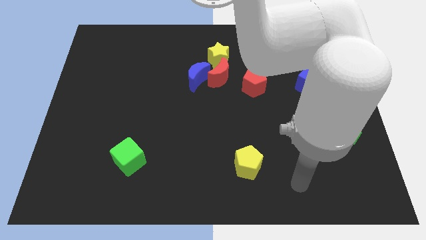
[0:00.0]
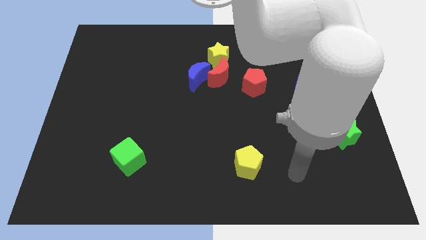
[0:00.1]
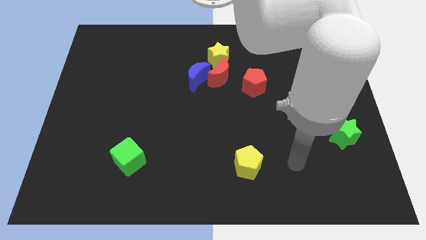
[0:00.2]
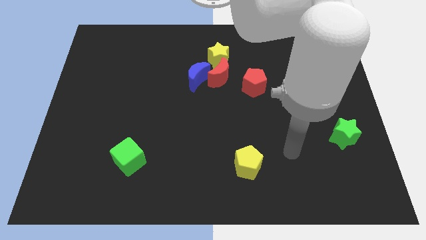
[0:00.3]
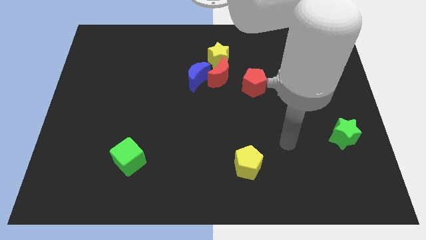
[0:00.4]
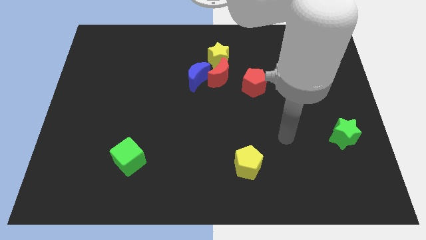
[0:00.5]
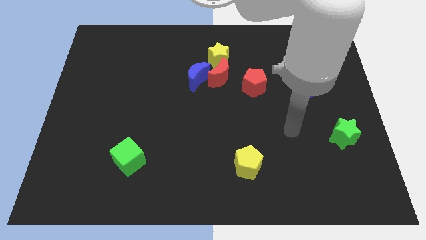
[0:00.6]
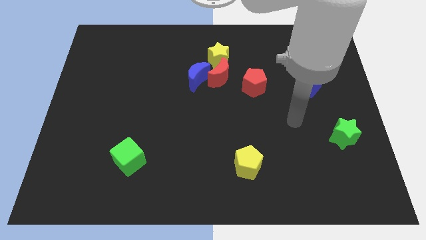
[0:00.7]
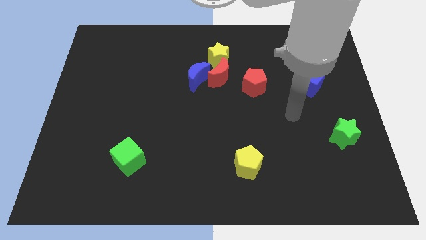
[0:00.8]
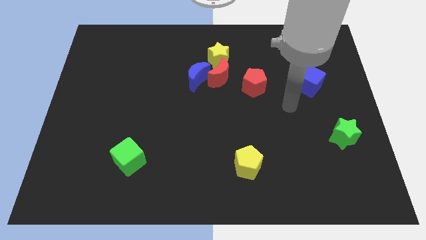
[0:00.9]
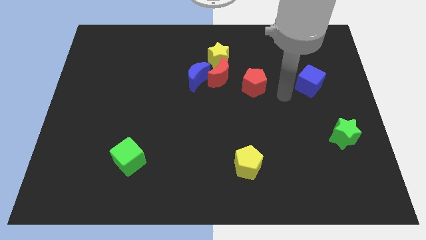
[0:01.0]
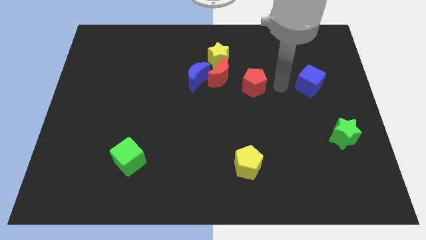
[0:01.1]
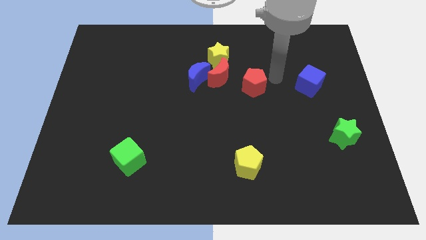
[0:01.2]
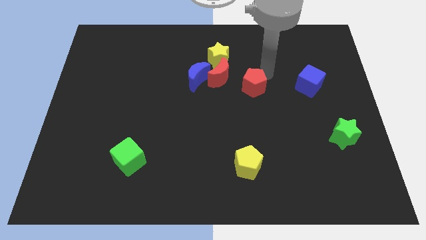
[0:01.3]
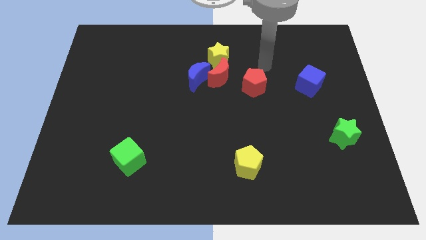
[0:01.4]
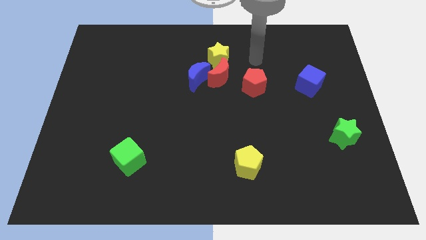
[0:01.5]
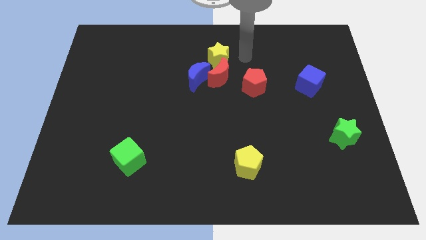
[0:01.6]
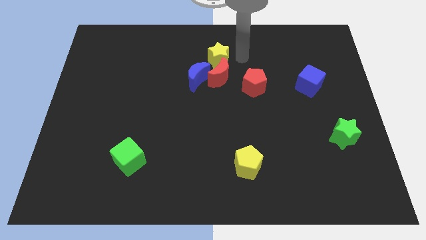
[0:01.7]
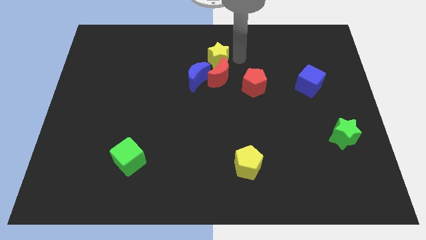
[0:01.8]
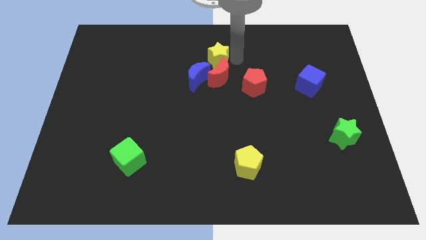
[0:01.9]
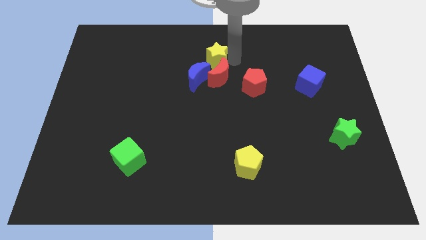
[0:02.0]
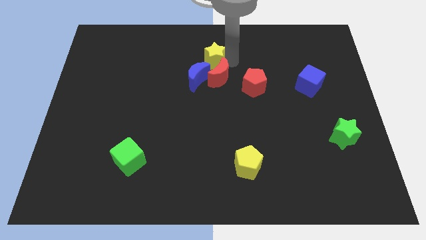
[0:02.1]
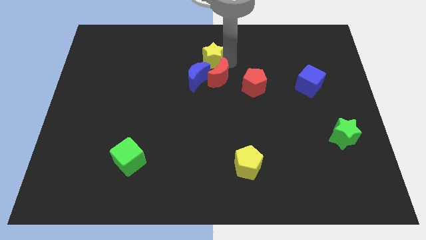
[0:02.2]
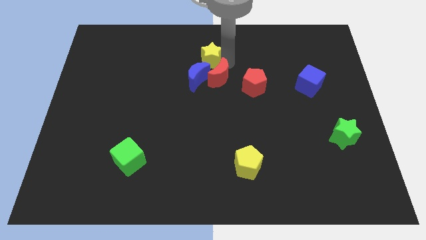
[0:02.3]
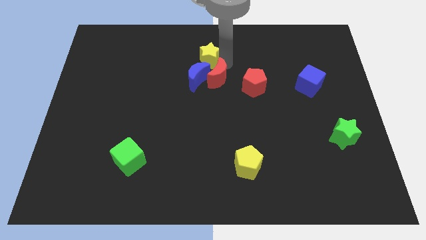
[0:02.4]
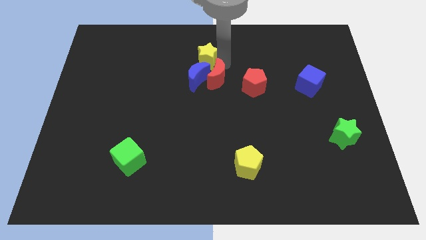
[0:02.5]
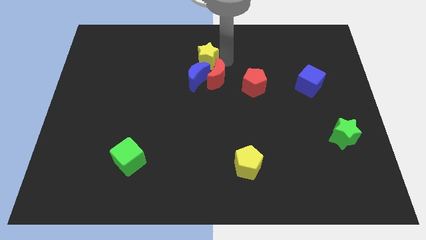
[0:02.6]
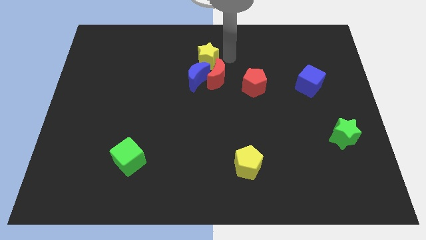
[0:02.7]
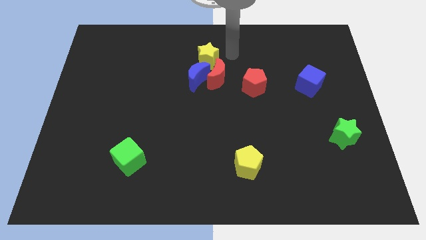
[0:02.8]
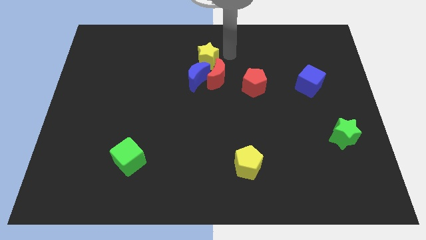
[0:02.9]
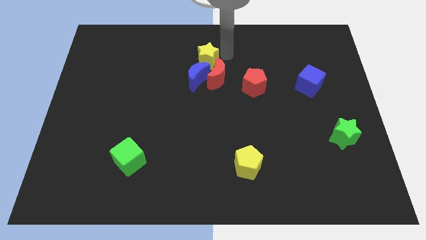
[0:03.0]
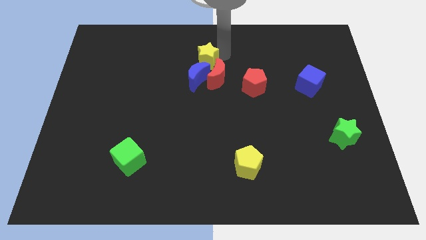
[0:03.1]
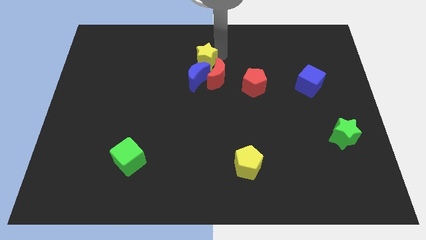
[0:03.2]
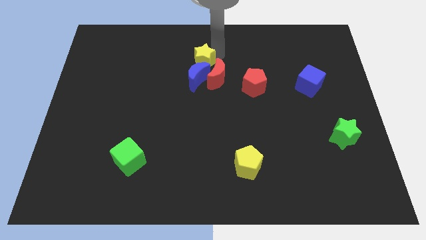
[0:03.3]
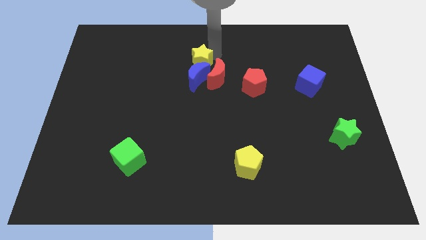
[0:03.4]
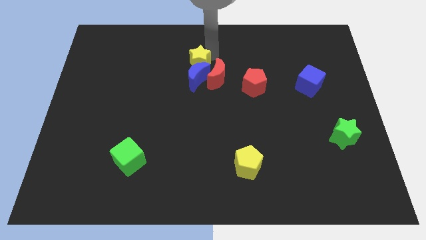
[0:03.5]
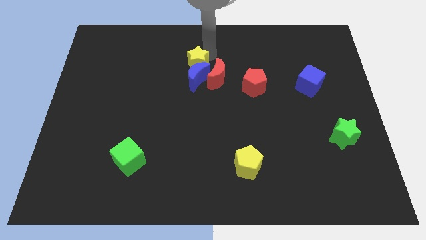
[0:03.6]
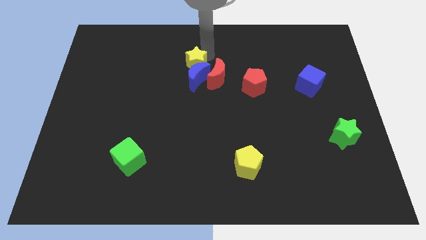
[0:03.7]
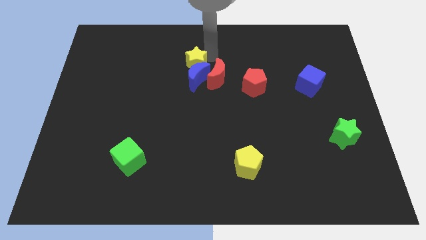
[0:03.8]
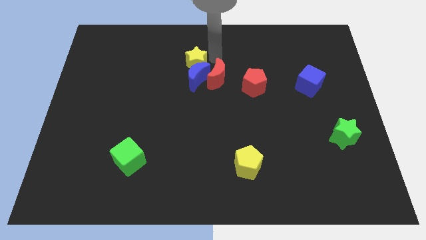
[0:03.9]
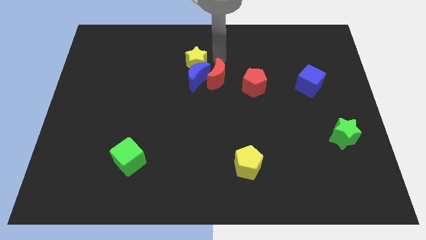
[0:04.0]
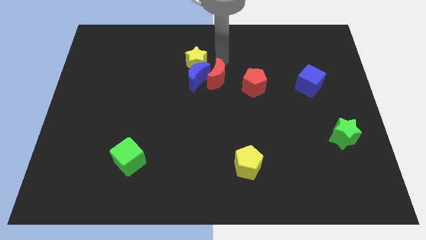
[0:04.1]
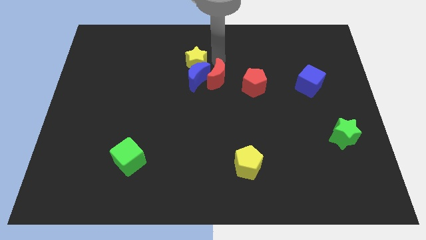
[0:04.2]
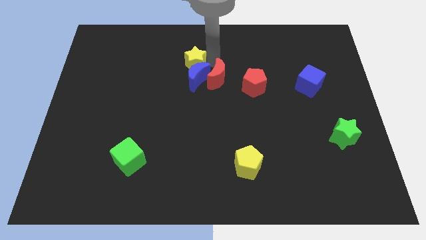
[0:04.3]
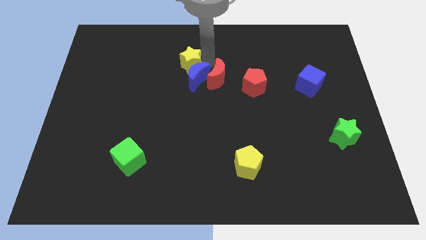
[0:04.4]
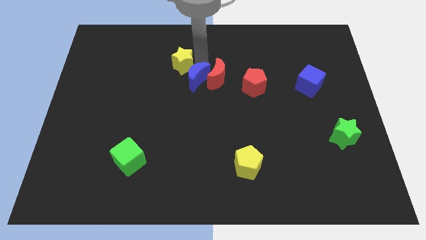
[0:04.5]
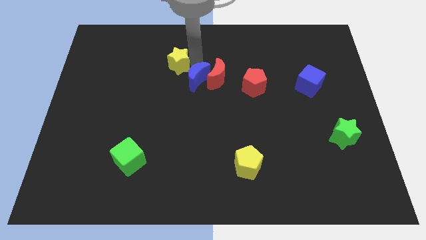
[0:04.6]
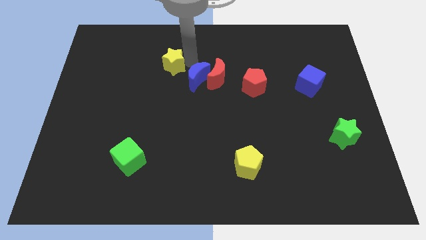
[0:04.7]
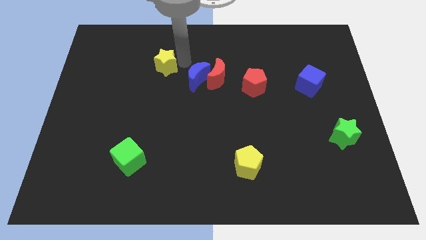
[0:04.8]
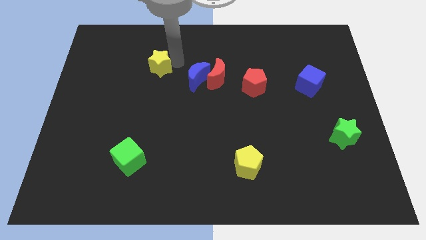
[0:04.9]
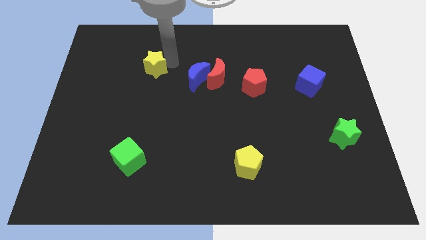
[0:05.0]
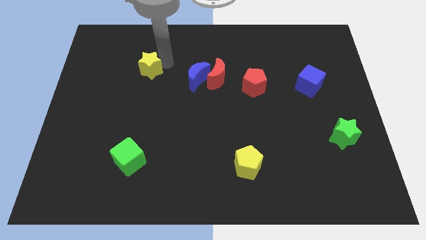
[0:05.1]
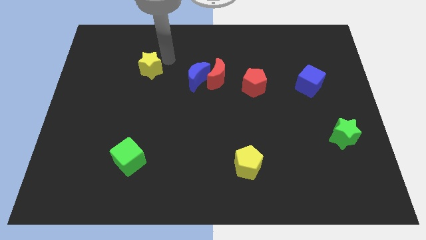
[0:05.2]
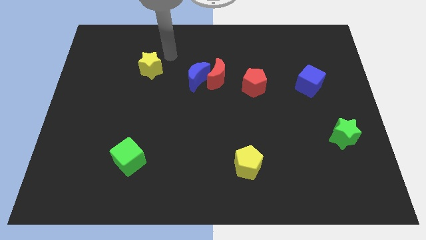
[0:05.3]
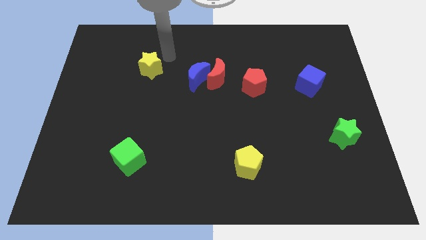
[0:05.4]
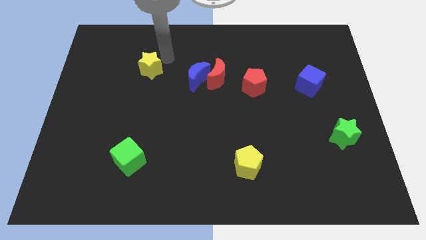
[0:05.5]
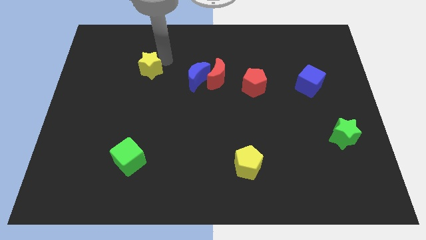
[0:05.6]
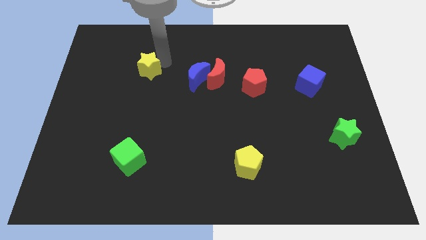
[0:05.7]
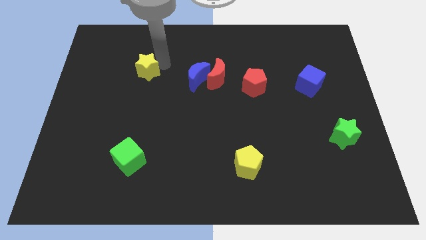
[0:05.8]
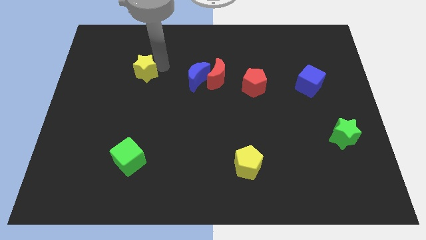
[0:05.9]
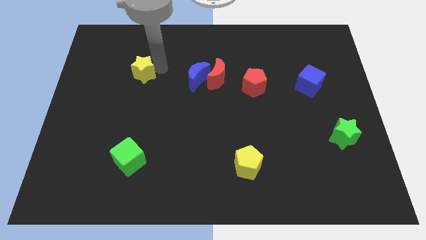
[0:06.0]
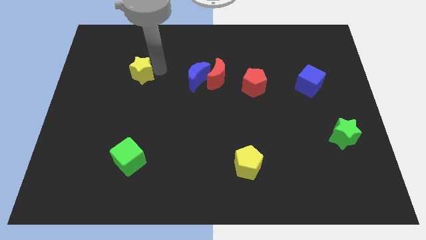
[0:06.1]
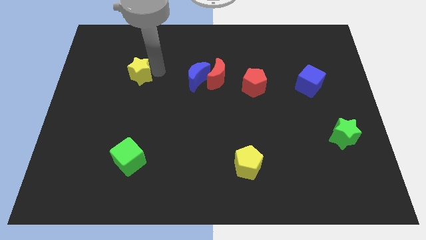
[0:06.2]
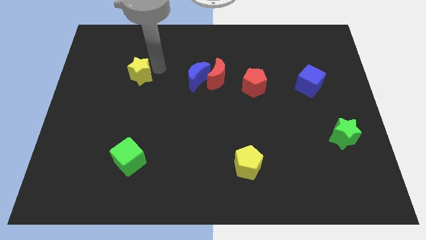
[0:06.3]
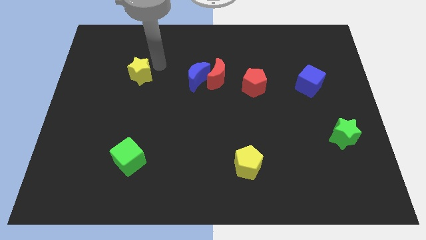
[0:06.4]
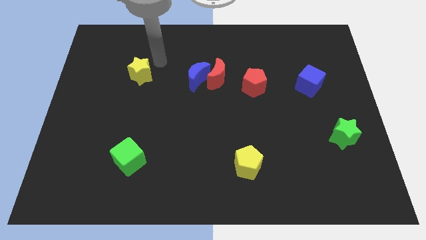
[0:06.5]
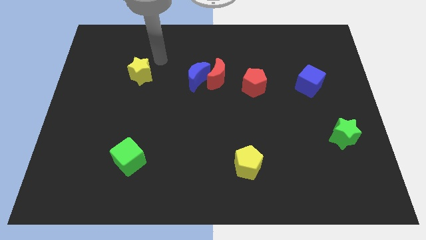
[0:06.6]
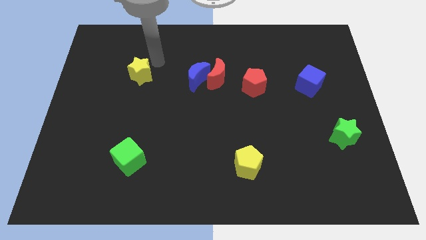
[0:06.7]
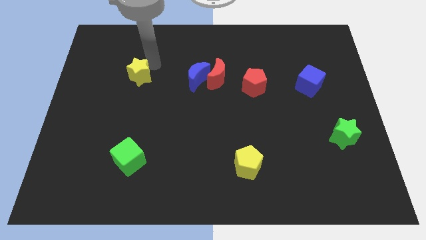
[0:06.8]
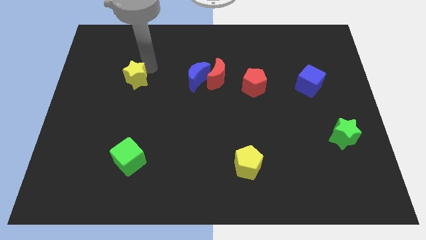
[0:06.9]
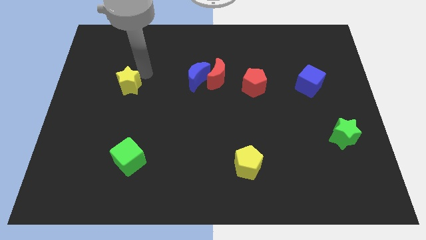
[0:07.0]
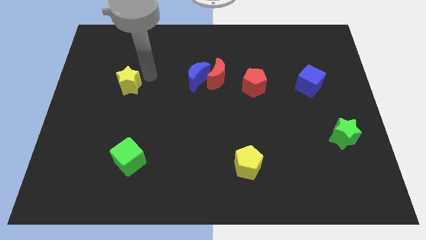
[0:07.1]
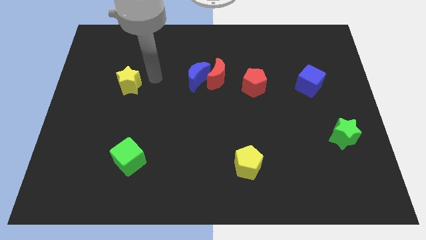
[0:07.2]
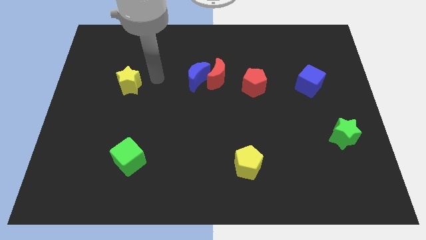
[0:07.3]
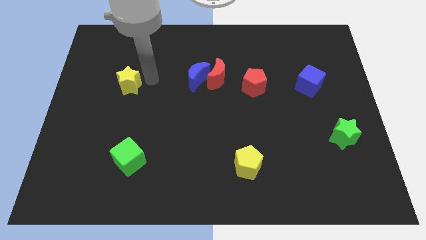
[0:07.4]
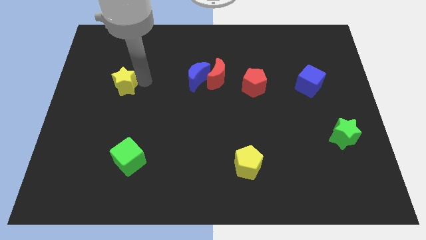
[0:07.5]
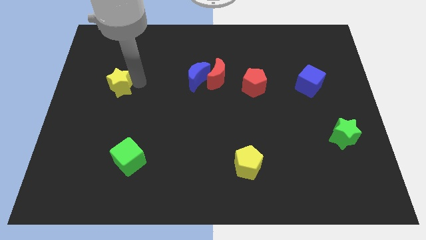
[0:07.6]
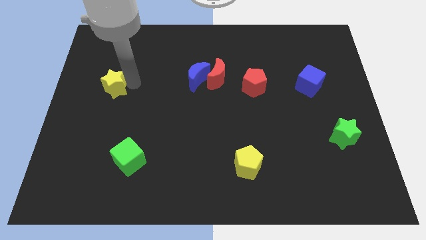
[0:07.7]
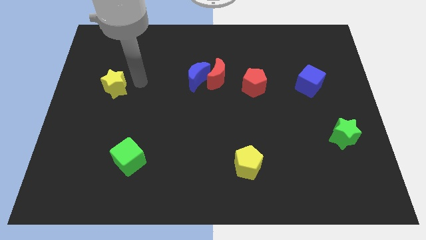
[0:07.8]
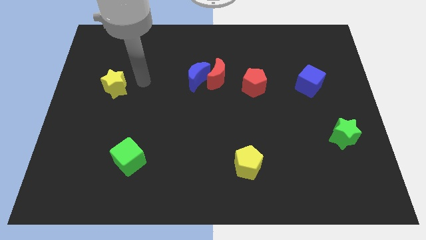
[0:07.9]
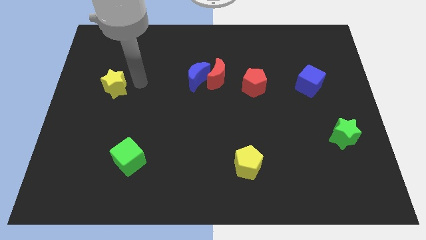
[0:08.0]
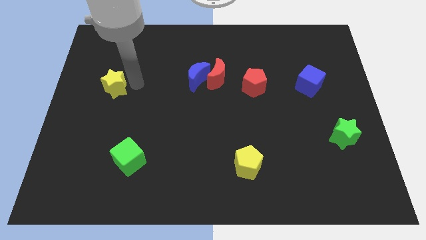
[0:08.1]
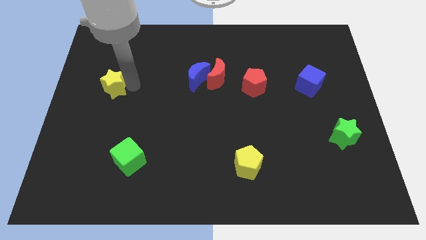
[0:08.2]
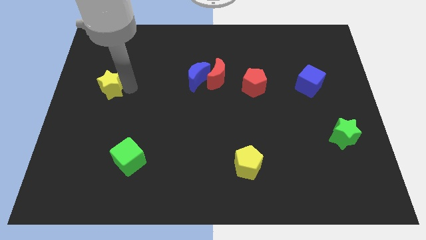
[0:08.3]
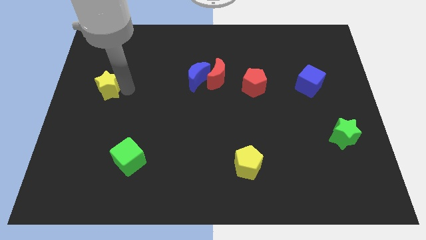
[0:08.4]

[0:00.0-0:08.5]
slide the yellow star to the left side of the board
